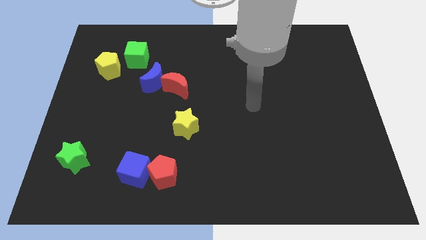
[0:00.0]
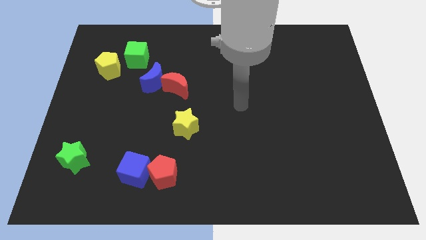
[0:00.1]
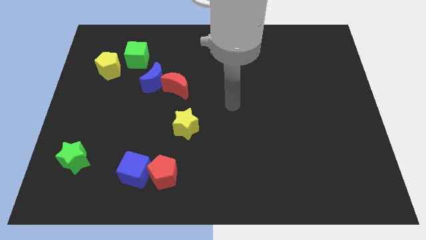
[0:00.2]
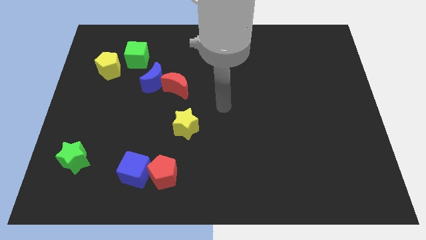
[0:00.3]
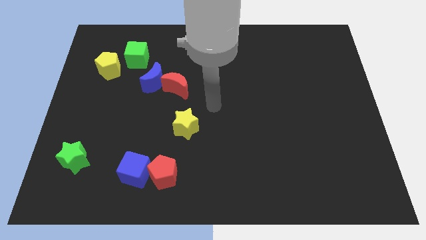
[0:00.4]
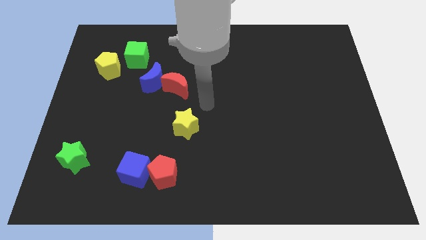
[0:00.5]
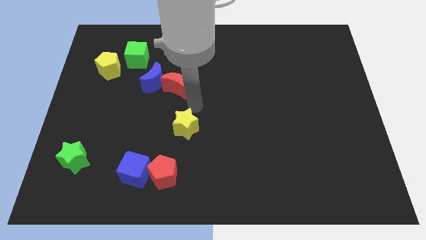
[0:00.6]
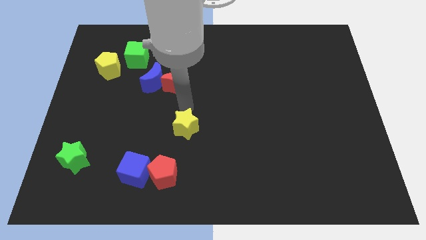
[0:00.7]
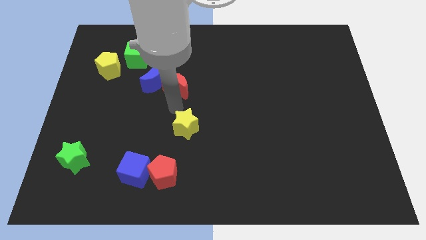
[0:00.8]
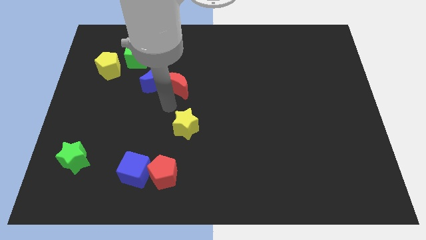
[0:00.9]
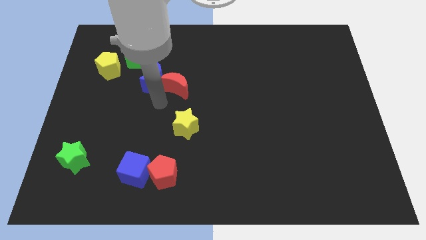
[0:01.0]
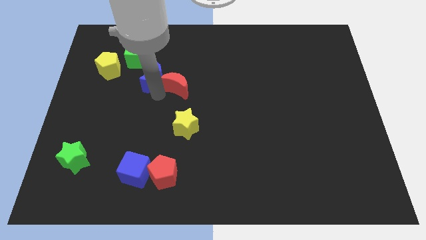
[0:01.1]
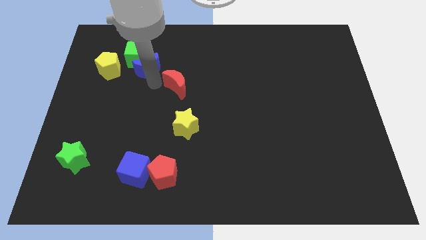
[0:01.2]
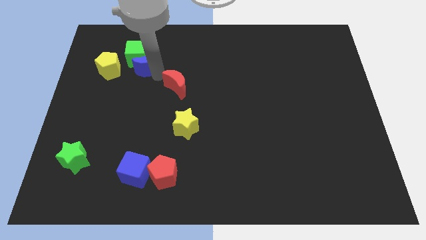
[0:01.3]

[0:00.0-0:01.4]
move the red moon away from the blue moon

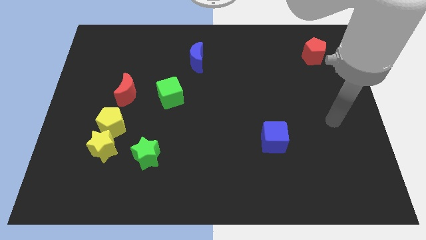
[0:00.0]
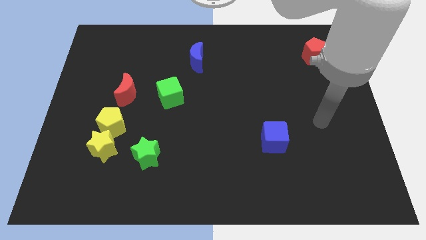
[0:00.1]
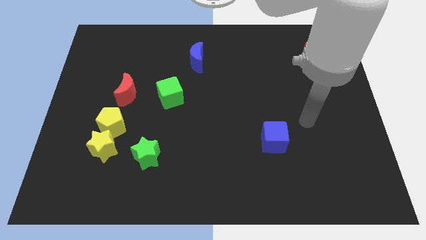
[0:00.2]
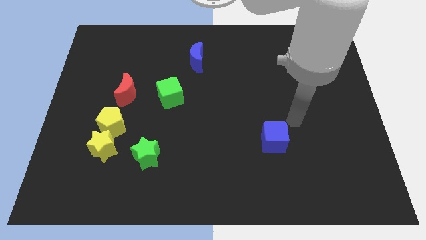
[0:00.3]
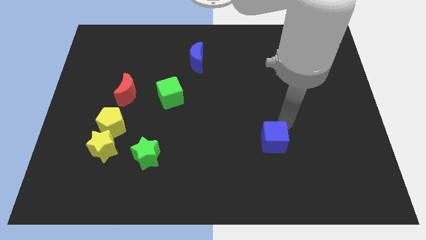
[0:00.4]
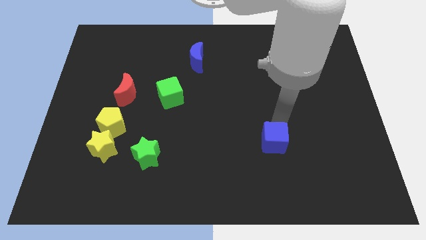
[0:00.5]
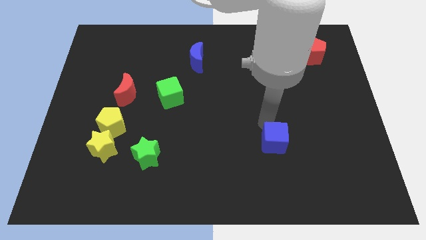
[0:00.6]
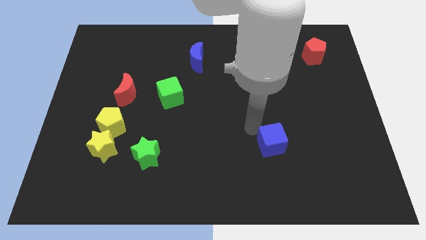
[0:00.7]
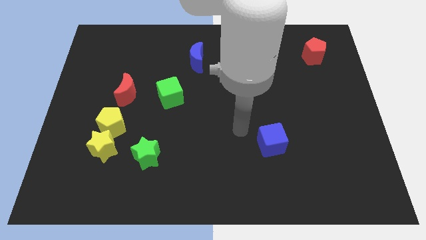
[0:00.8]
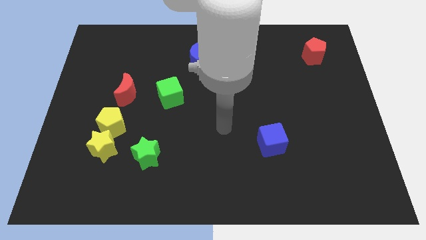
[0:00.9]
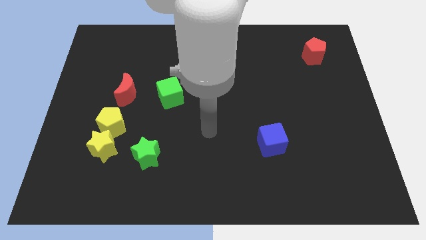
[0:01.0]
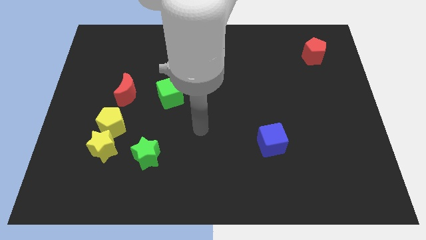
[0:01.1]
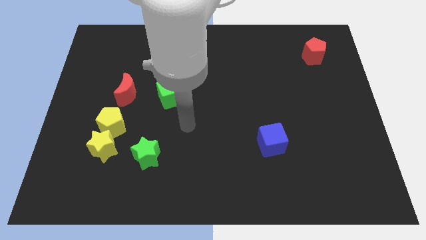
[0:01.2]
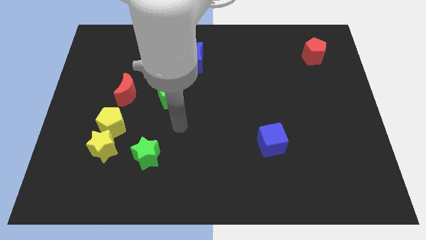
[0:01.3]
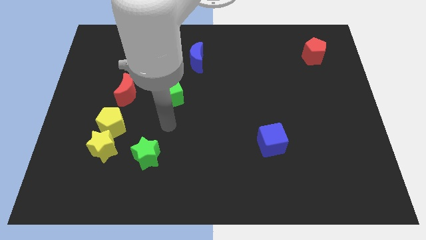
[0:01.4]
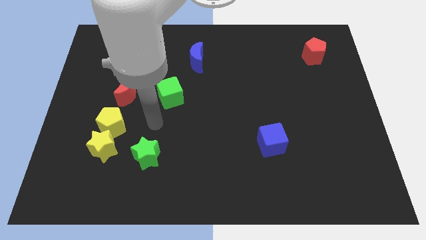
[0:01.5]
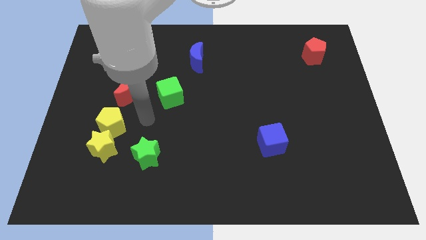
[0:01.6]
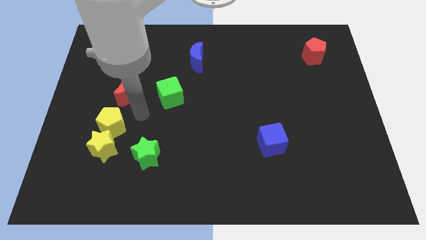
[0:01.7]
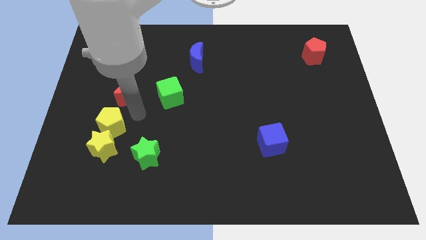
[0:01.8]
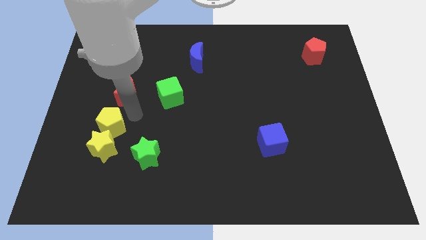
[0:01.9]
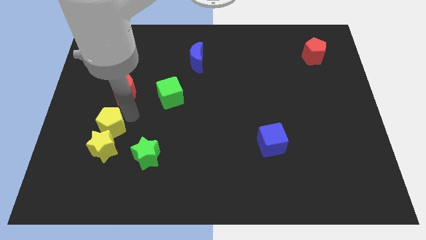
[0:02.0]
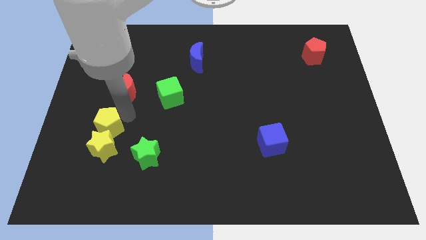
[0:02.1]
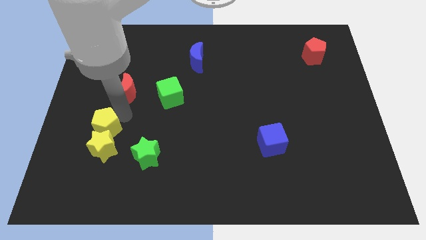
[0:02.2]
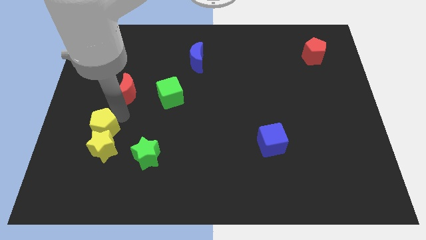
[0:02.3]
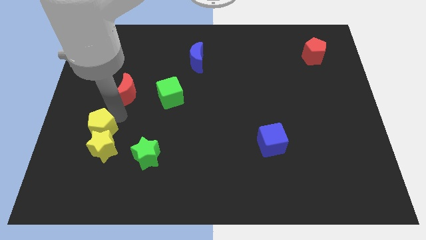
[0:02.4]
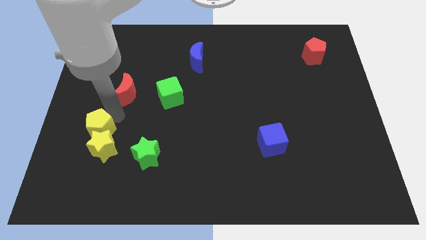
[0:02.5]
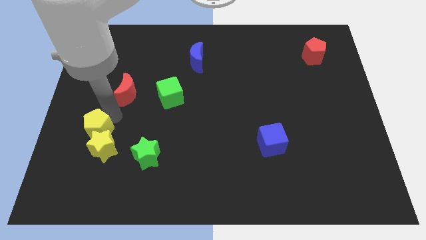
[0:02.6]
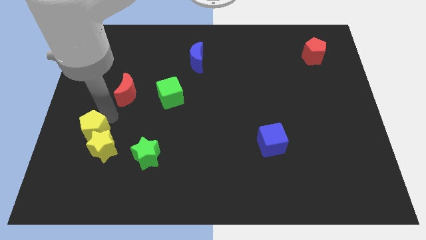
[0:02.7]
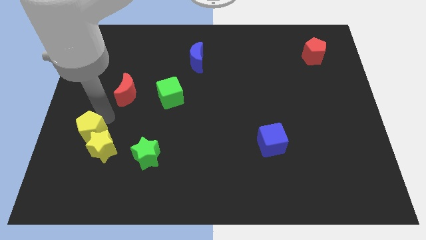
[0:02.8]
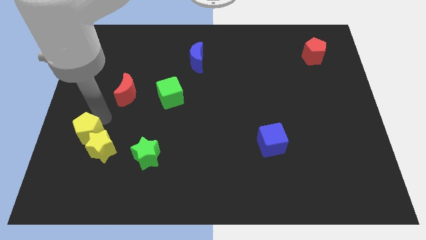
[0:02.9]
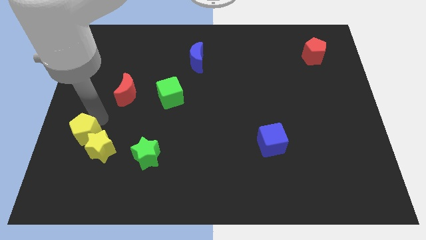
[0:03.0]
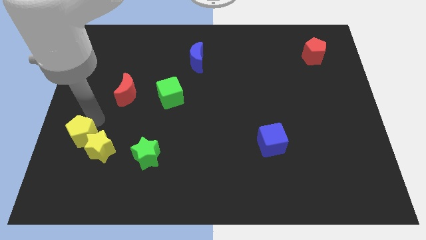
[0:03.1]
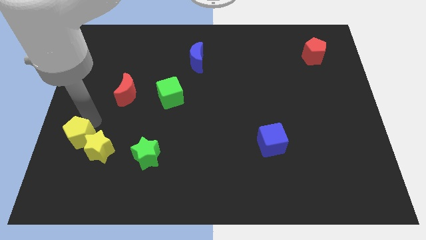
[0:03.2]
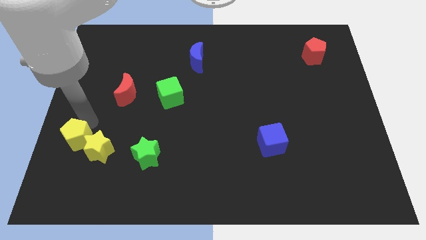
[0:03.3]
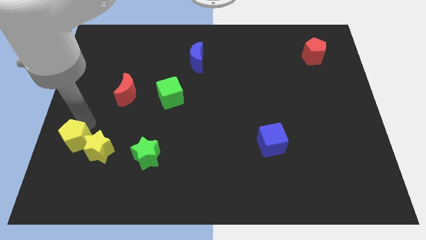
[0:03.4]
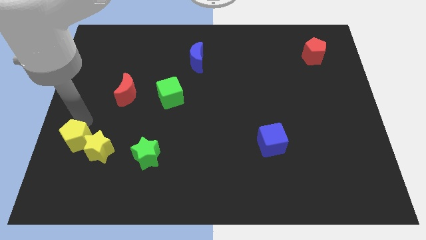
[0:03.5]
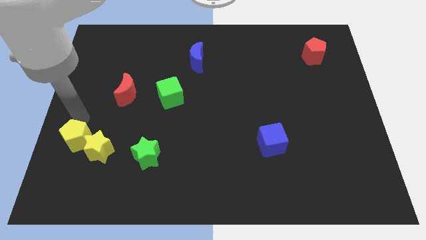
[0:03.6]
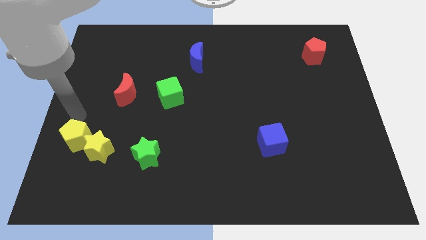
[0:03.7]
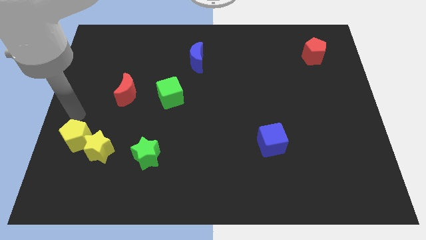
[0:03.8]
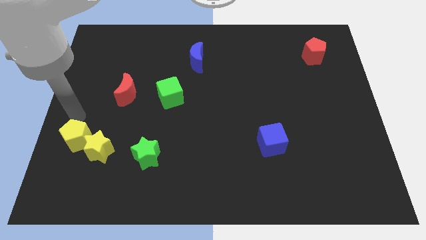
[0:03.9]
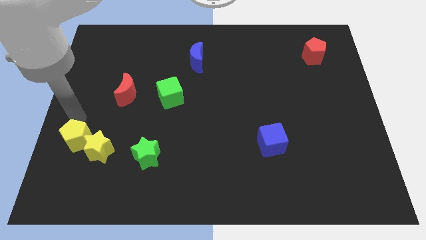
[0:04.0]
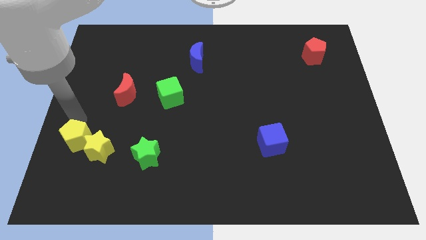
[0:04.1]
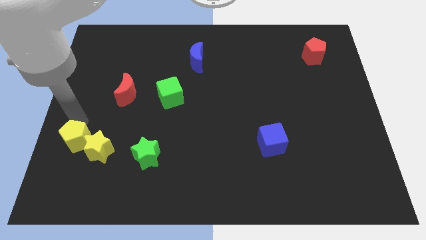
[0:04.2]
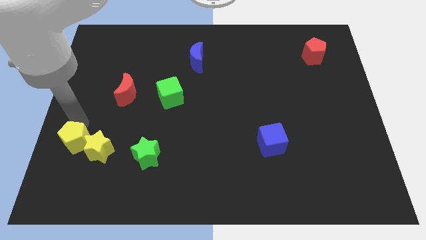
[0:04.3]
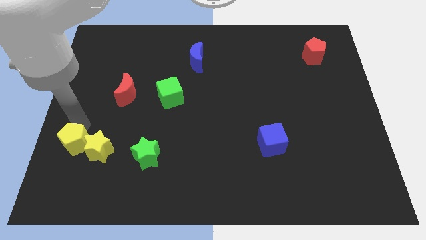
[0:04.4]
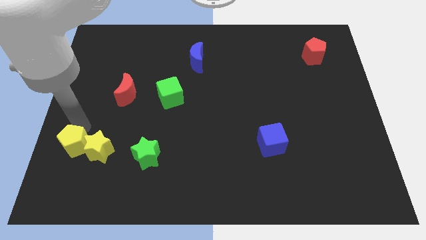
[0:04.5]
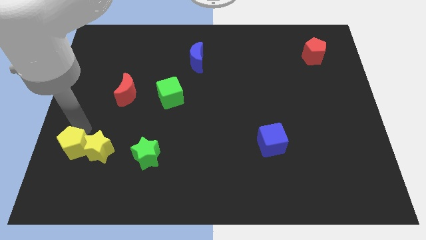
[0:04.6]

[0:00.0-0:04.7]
pull the yellow pentagon apart from the yellow star and red moon

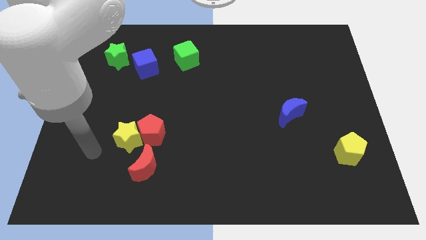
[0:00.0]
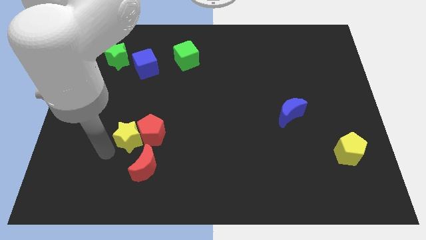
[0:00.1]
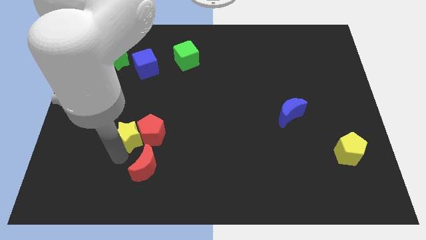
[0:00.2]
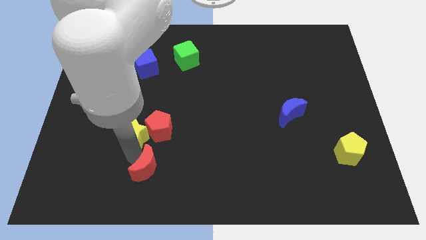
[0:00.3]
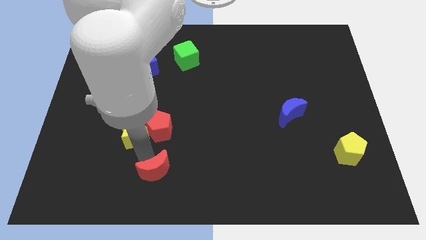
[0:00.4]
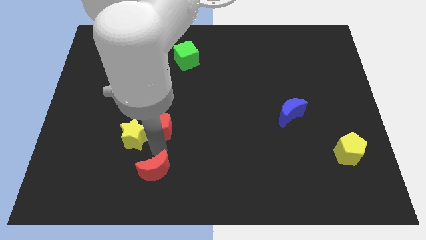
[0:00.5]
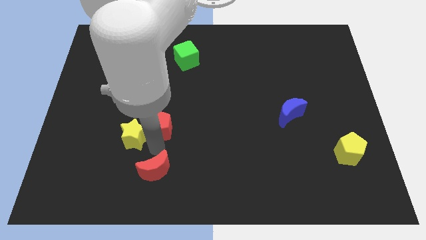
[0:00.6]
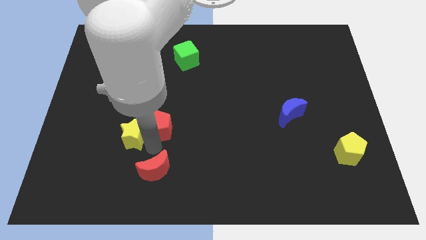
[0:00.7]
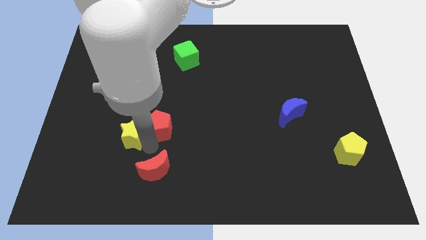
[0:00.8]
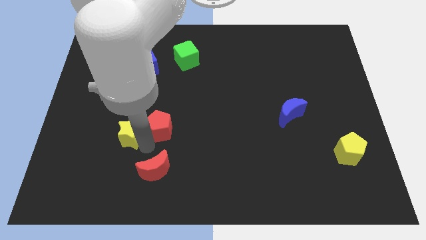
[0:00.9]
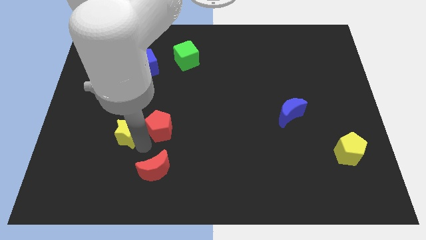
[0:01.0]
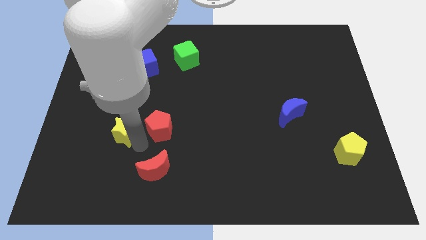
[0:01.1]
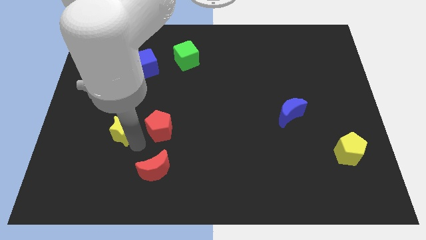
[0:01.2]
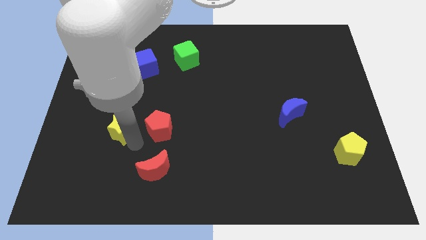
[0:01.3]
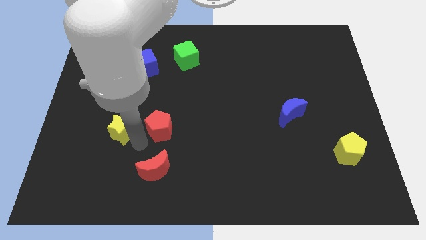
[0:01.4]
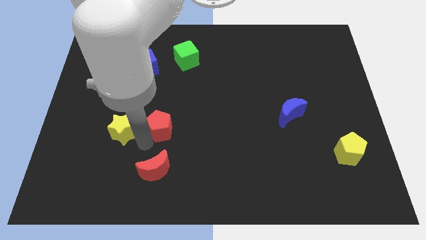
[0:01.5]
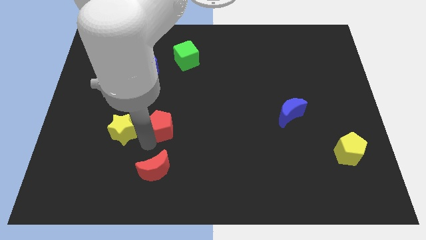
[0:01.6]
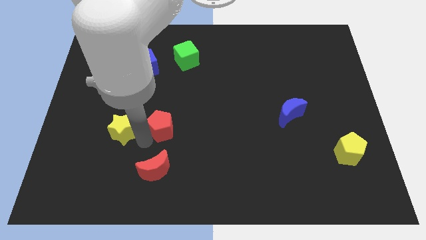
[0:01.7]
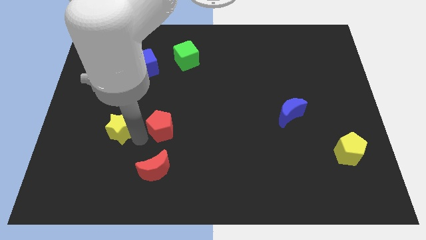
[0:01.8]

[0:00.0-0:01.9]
move the yellow star away from the red pentagon and red moon

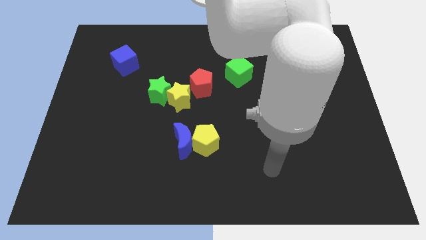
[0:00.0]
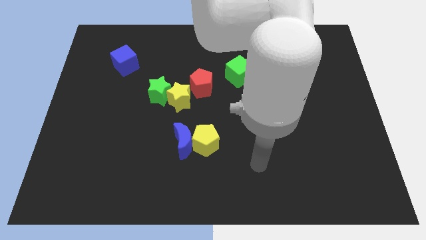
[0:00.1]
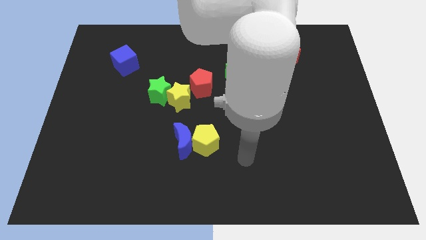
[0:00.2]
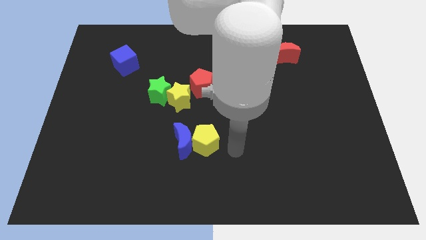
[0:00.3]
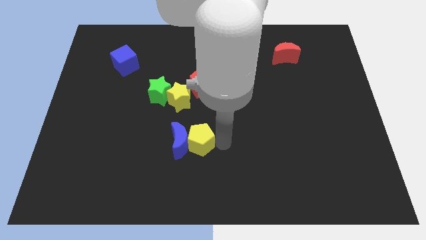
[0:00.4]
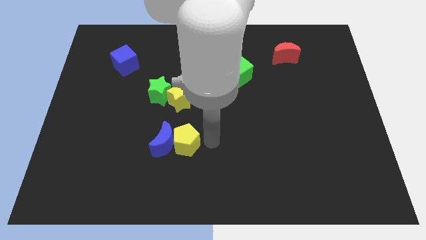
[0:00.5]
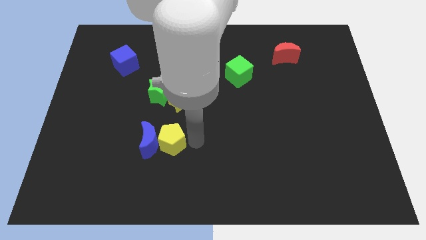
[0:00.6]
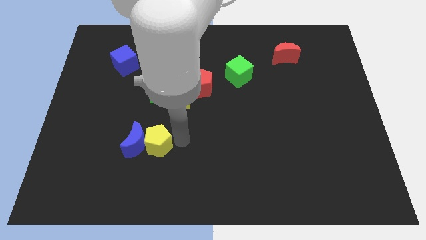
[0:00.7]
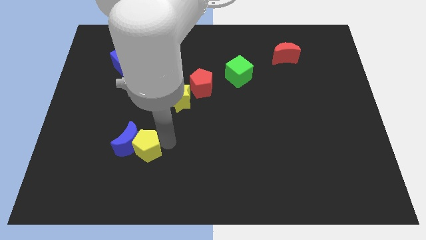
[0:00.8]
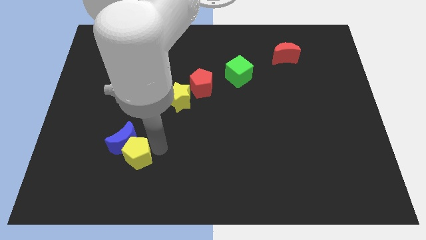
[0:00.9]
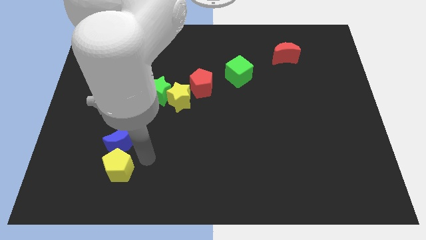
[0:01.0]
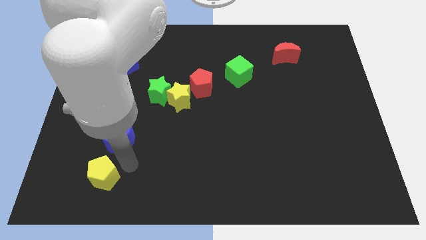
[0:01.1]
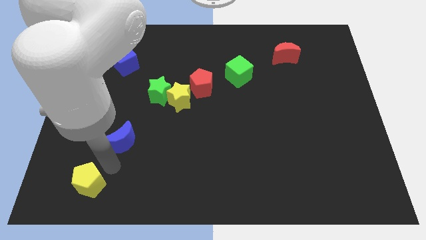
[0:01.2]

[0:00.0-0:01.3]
separate the blue moon from the yellow pentagon

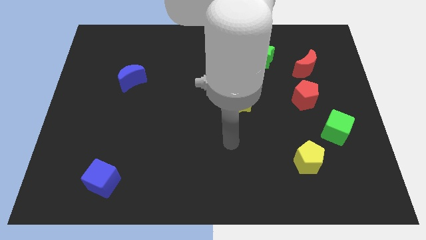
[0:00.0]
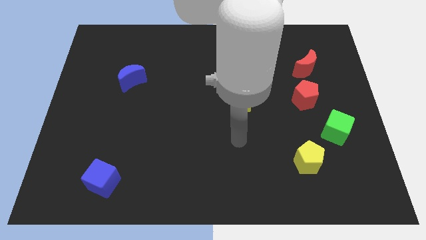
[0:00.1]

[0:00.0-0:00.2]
pull the red moon apart from the red pentagon
